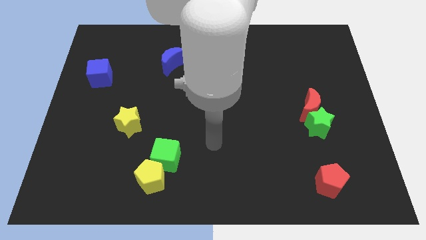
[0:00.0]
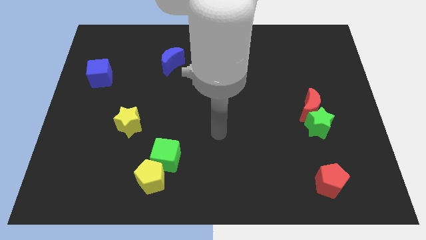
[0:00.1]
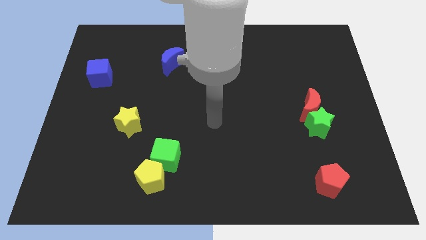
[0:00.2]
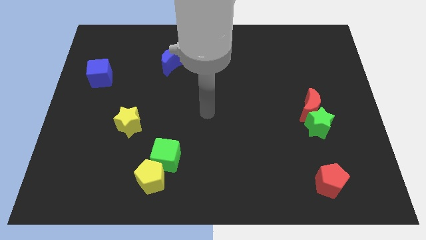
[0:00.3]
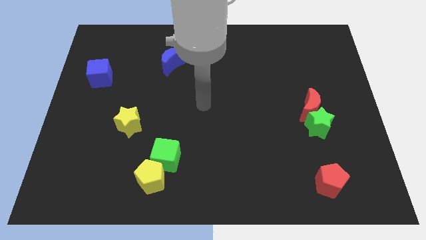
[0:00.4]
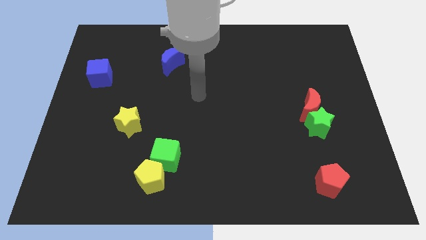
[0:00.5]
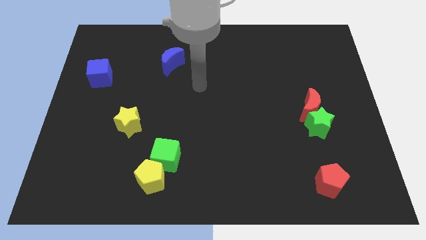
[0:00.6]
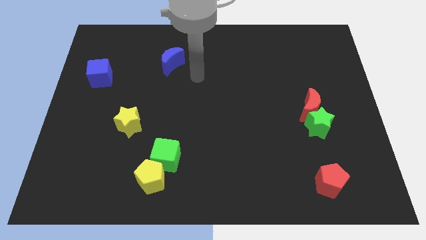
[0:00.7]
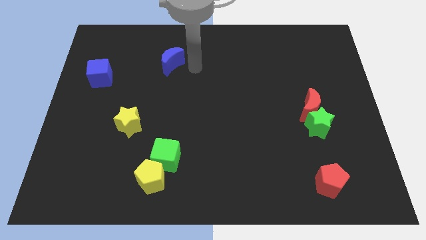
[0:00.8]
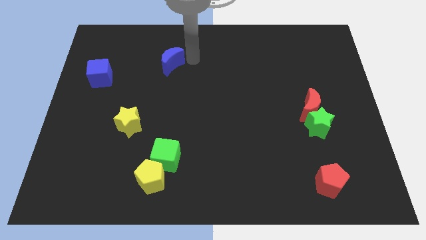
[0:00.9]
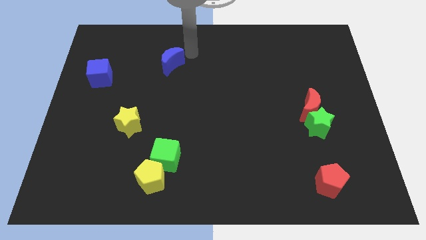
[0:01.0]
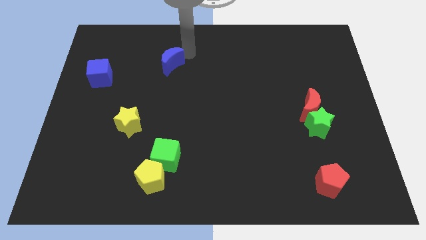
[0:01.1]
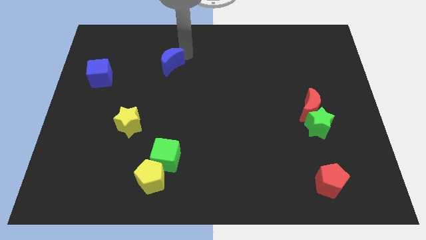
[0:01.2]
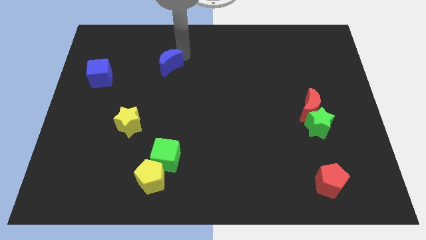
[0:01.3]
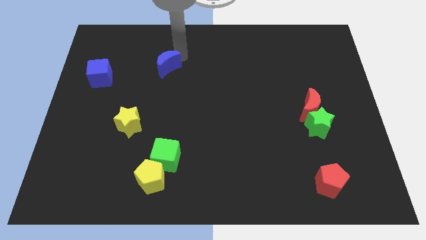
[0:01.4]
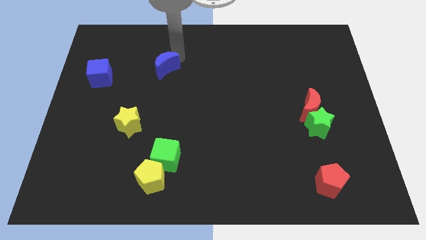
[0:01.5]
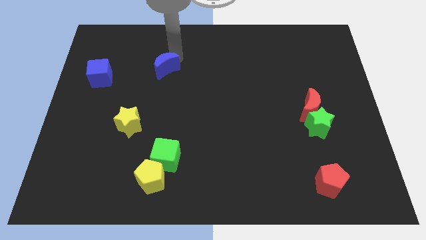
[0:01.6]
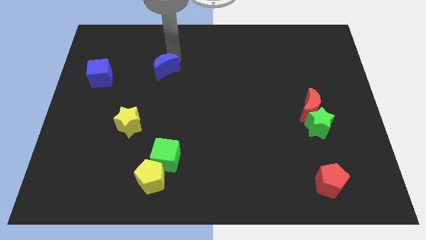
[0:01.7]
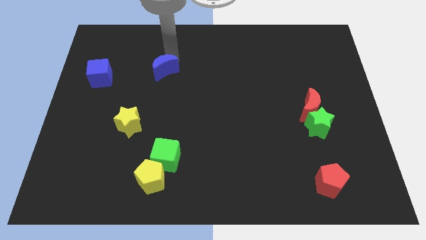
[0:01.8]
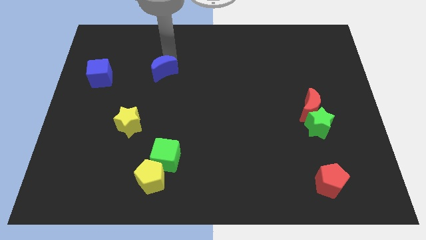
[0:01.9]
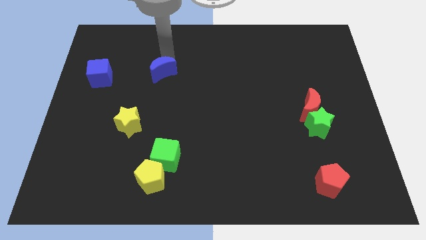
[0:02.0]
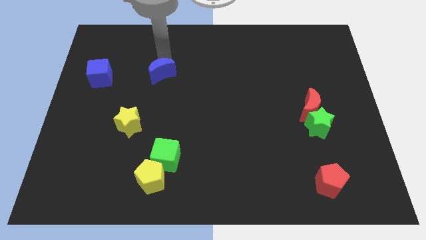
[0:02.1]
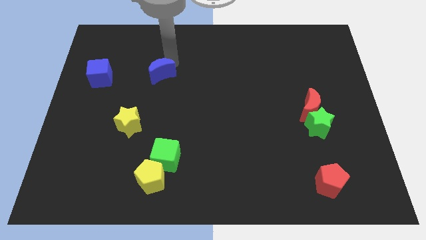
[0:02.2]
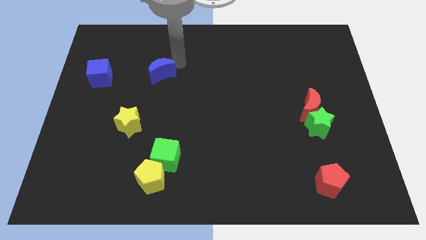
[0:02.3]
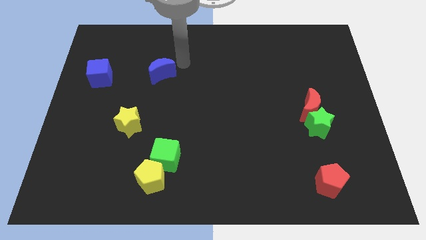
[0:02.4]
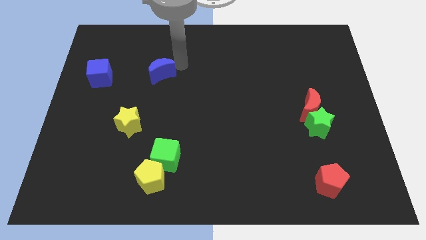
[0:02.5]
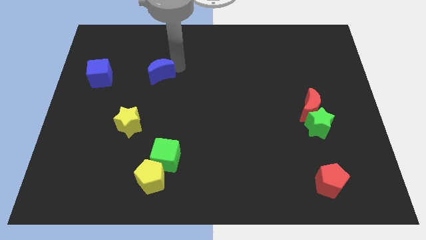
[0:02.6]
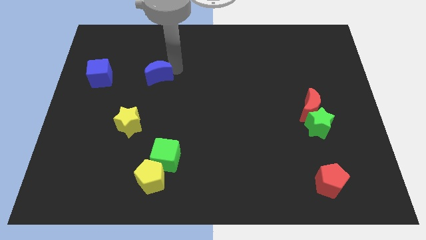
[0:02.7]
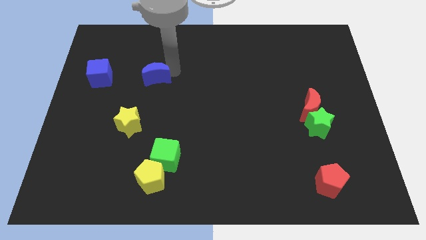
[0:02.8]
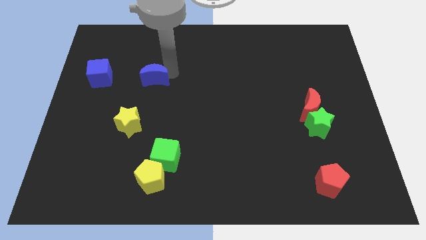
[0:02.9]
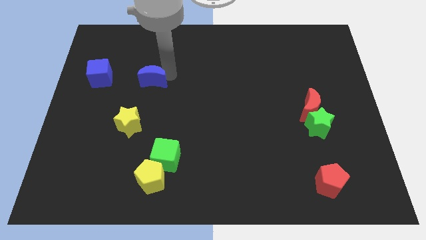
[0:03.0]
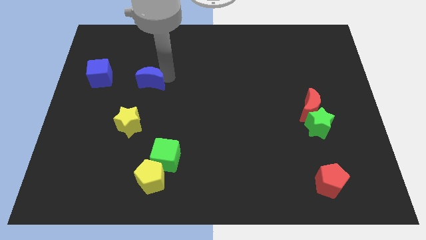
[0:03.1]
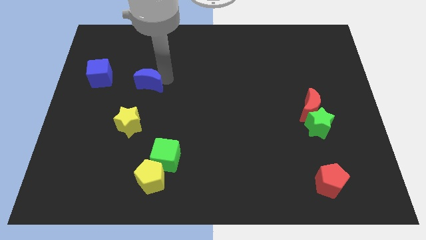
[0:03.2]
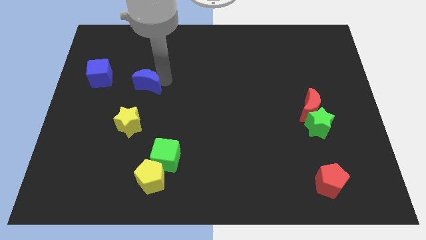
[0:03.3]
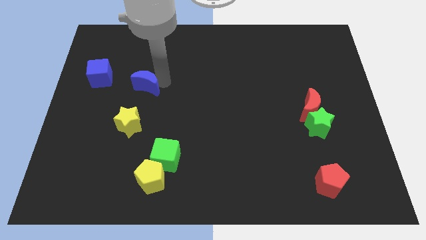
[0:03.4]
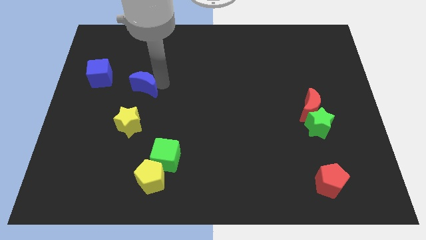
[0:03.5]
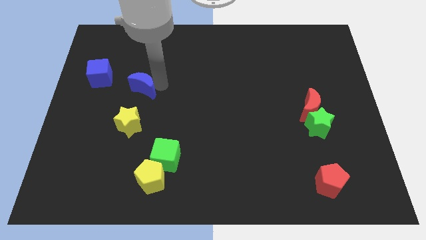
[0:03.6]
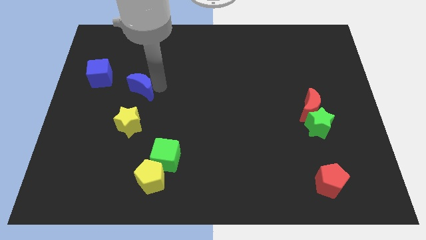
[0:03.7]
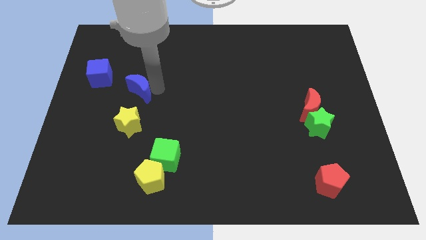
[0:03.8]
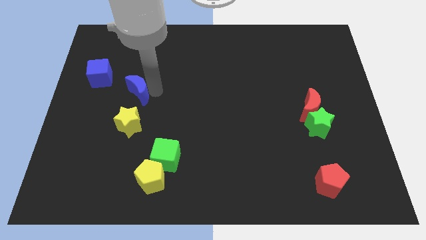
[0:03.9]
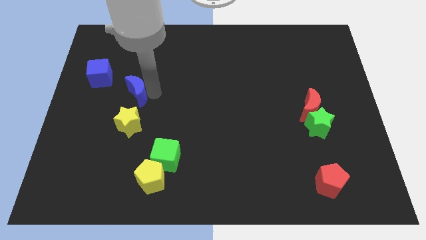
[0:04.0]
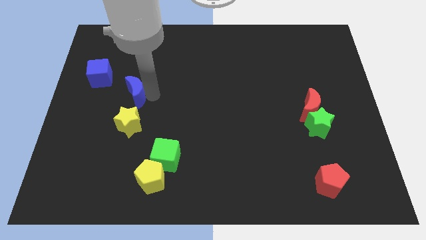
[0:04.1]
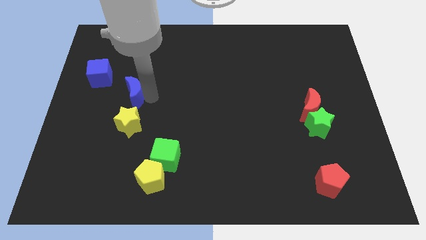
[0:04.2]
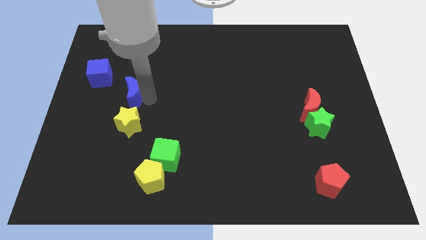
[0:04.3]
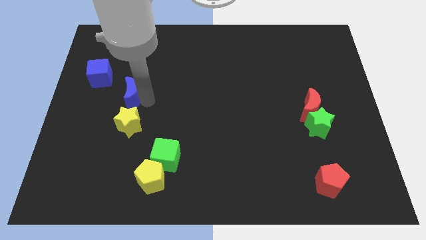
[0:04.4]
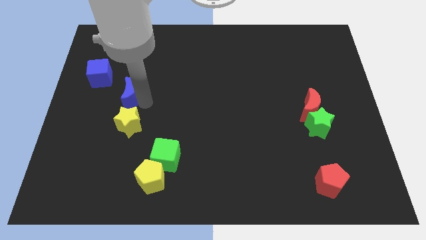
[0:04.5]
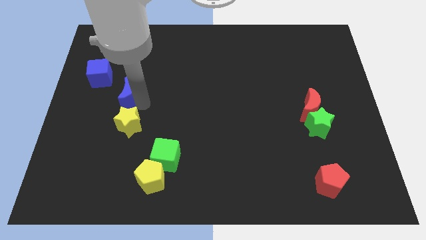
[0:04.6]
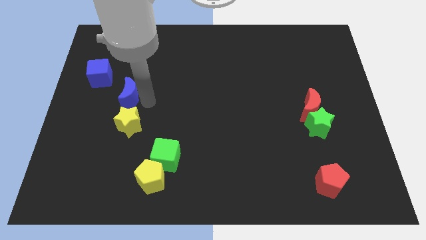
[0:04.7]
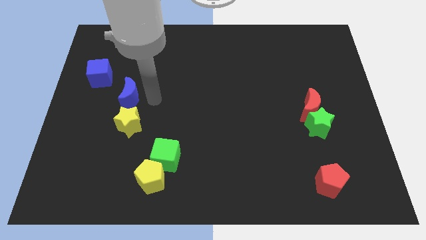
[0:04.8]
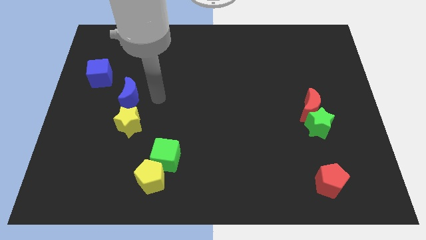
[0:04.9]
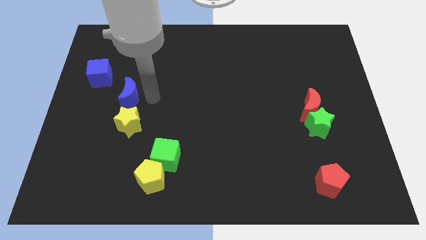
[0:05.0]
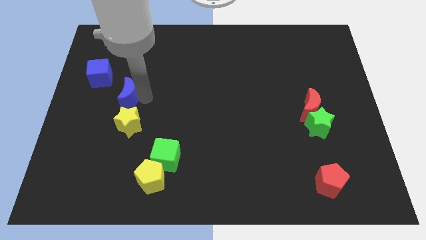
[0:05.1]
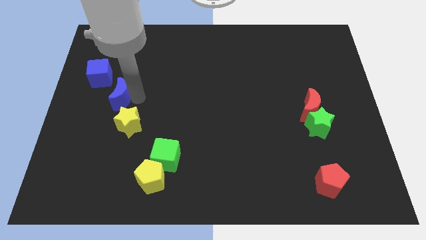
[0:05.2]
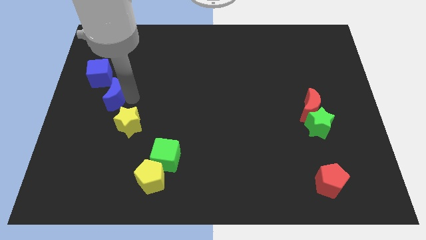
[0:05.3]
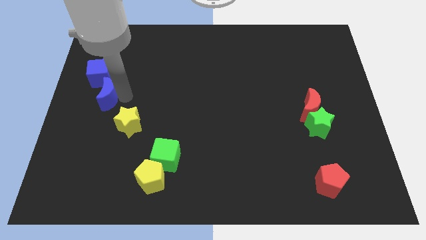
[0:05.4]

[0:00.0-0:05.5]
put the blue moon to the bottom of the blue cube

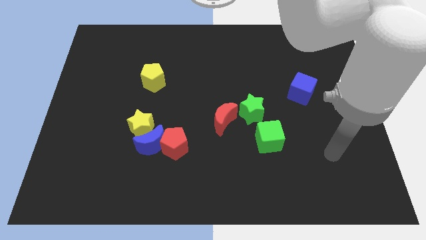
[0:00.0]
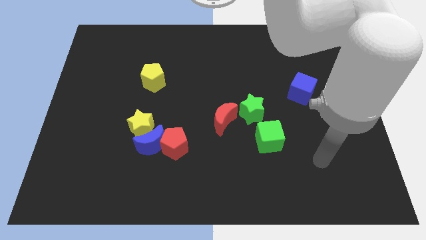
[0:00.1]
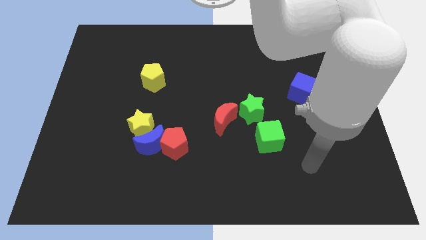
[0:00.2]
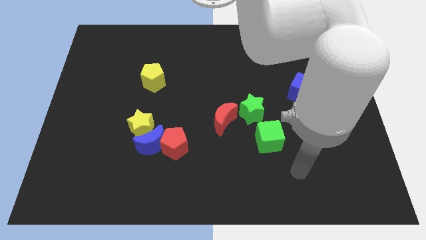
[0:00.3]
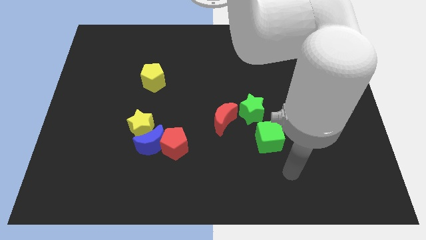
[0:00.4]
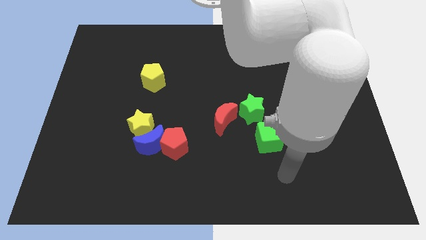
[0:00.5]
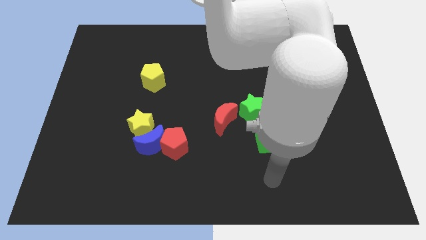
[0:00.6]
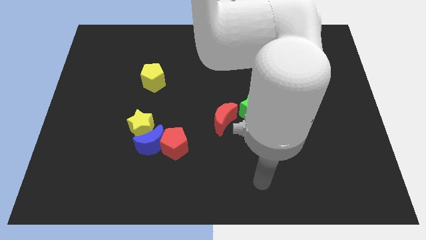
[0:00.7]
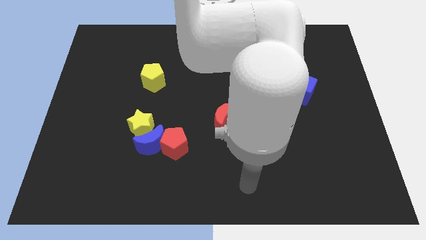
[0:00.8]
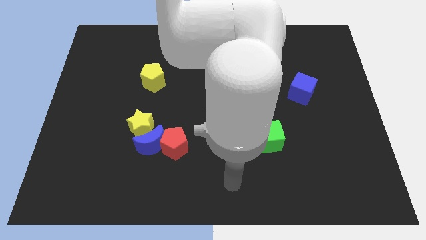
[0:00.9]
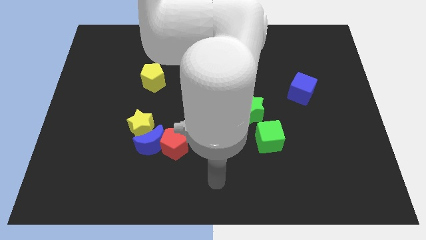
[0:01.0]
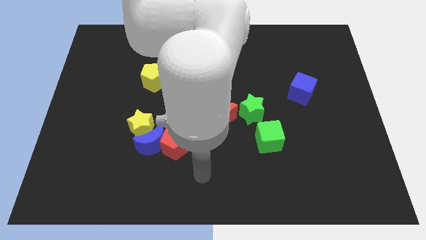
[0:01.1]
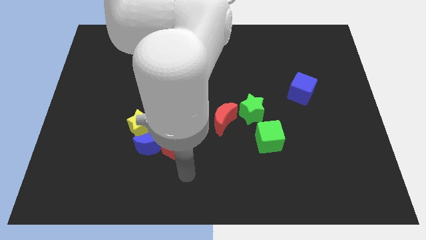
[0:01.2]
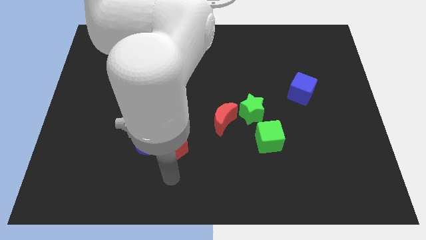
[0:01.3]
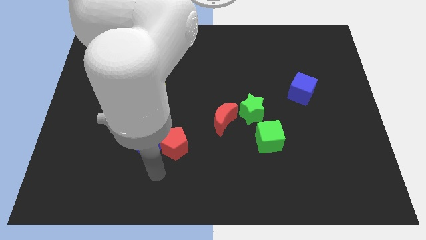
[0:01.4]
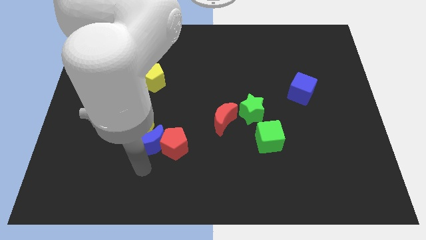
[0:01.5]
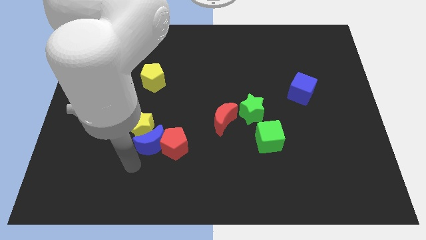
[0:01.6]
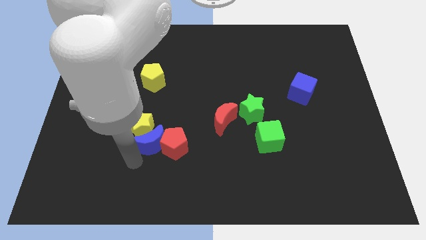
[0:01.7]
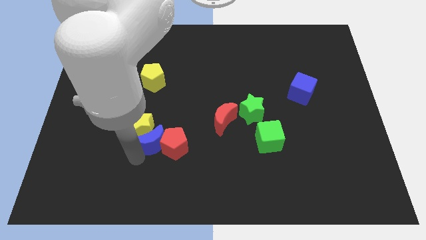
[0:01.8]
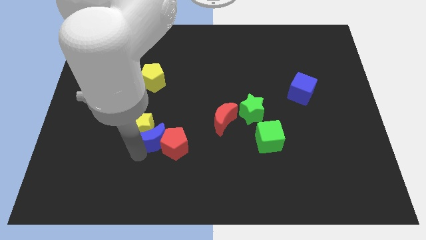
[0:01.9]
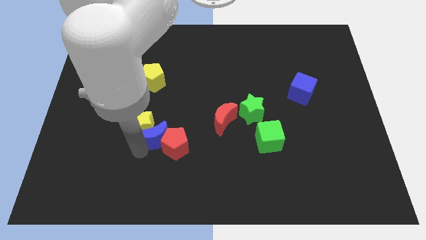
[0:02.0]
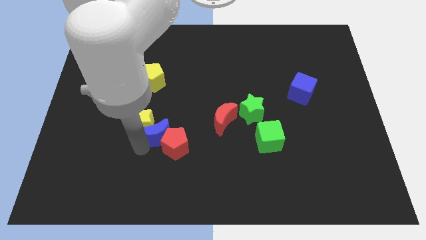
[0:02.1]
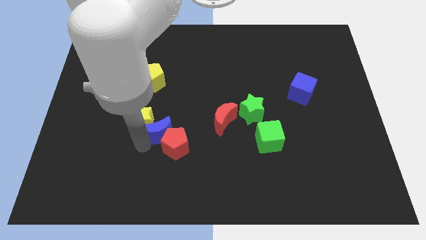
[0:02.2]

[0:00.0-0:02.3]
move the blue moon to the left side of the red moon

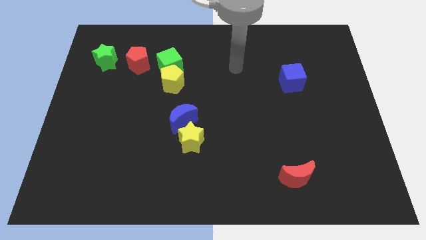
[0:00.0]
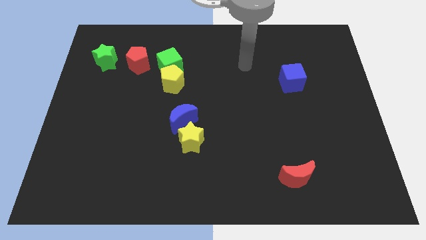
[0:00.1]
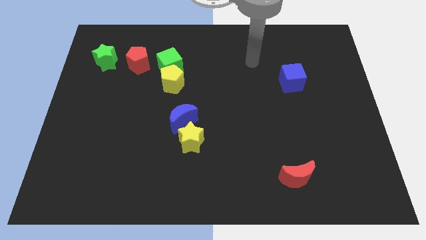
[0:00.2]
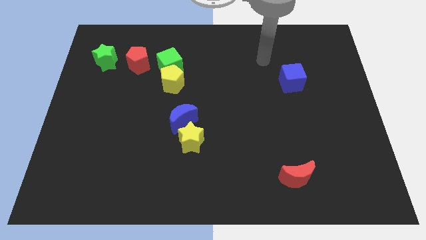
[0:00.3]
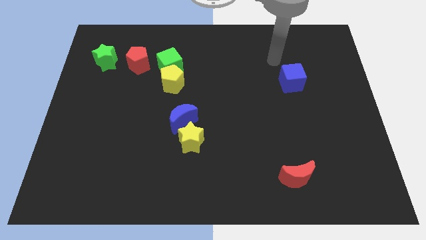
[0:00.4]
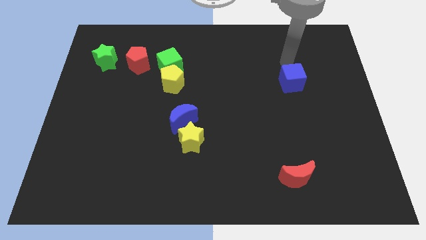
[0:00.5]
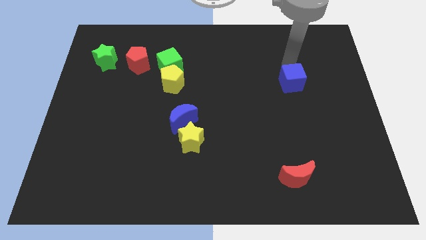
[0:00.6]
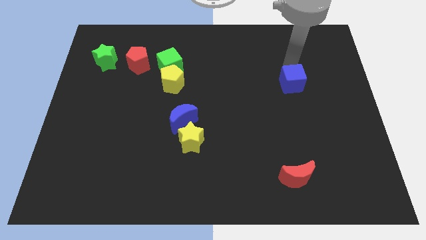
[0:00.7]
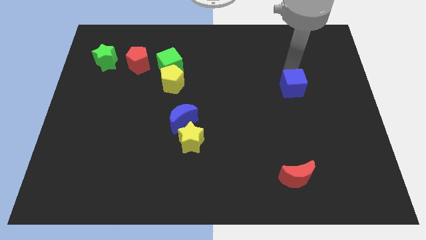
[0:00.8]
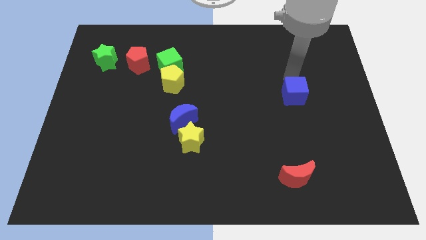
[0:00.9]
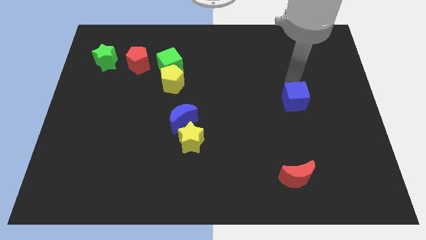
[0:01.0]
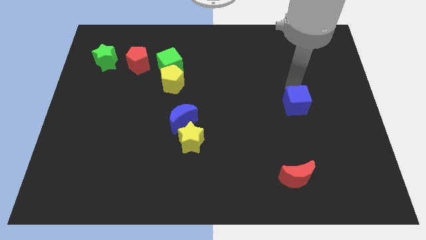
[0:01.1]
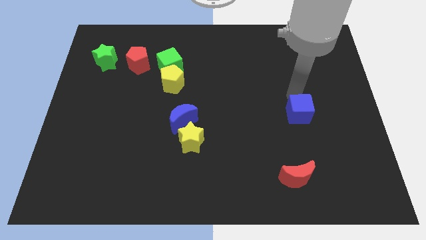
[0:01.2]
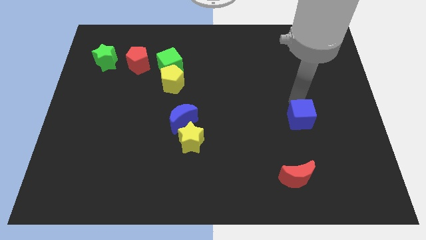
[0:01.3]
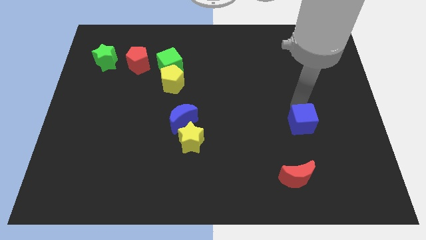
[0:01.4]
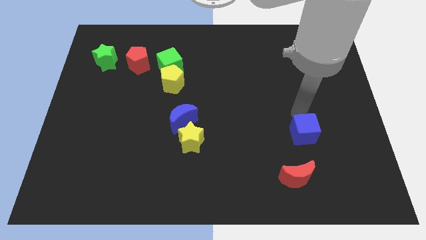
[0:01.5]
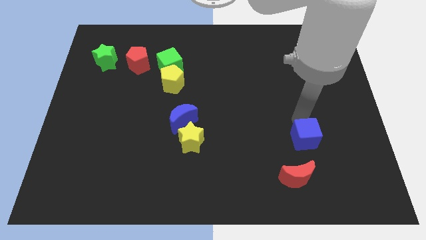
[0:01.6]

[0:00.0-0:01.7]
move the blue cube to the top right side of the red moon
